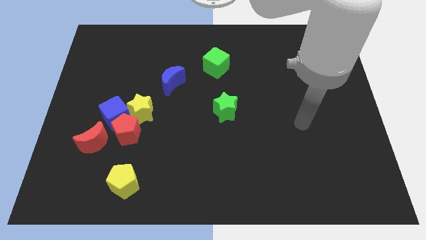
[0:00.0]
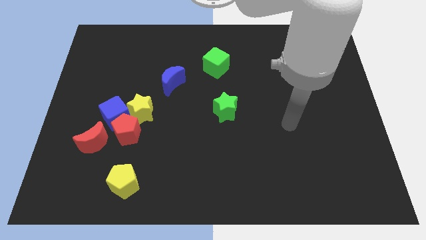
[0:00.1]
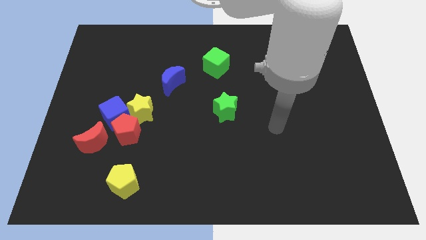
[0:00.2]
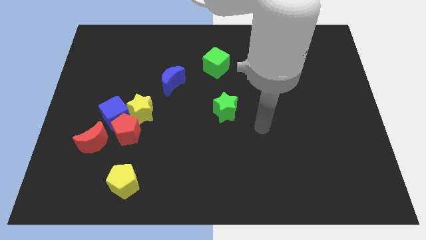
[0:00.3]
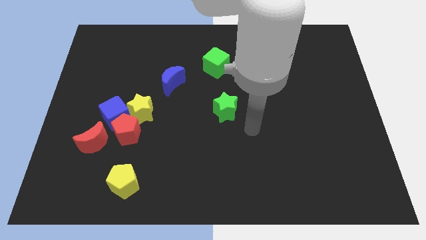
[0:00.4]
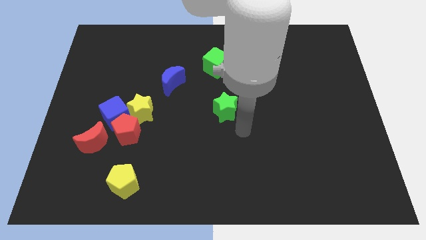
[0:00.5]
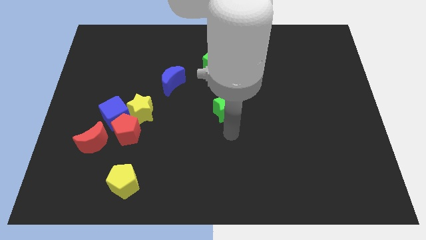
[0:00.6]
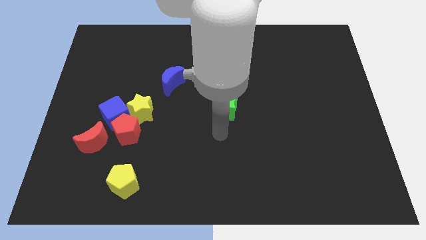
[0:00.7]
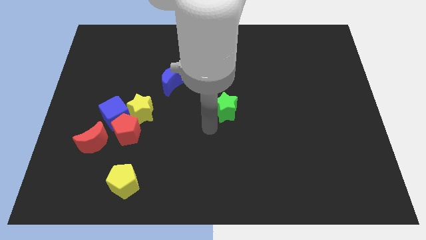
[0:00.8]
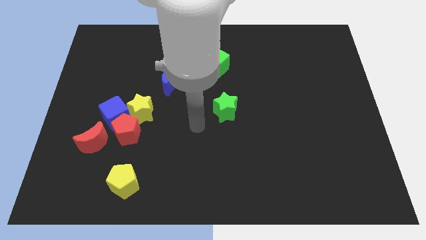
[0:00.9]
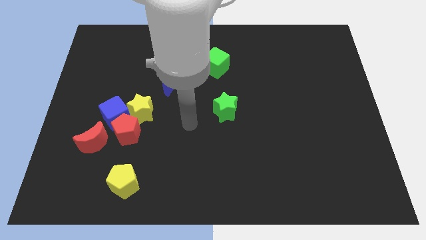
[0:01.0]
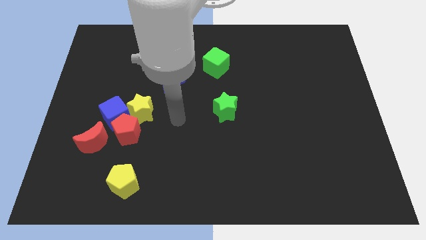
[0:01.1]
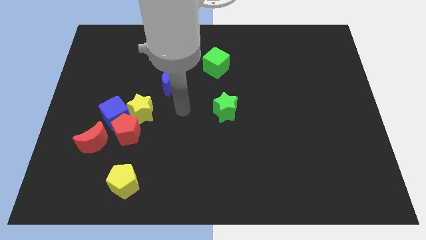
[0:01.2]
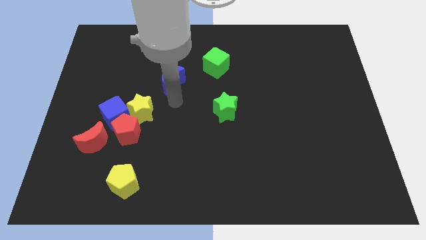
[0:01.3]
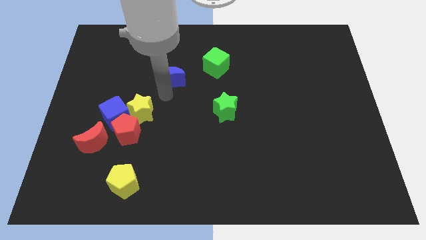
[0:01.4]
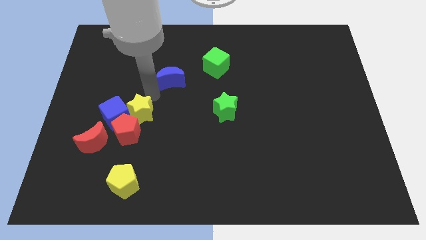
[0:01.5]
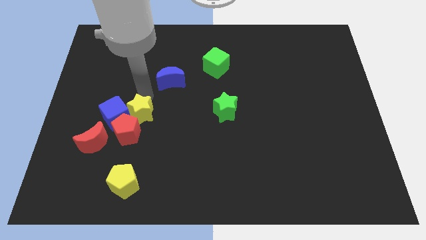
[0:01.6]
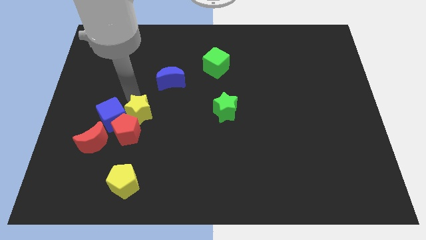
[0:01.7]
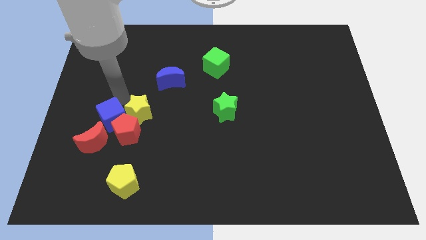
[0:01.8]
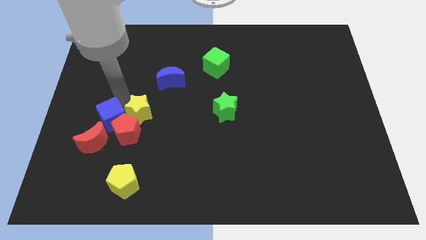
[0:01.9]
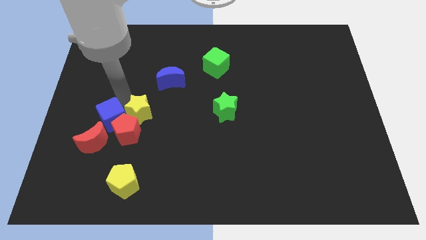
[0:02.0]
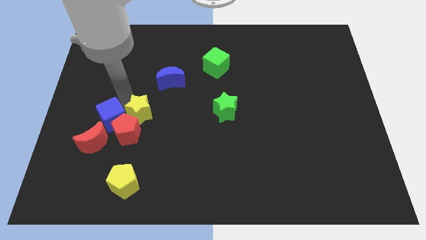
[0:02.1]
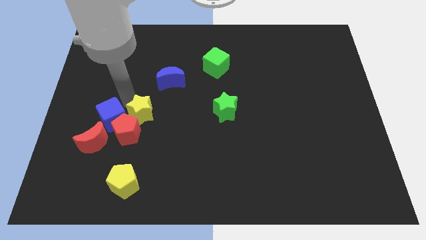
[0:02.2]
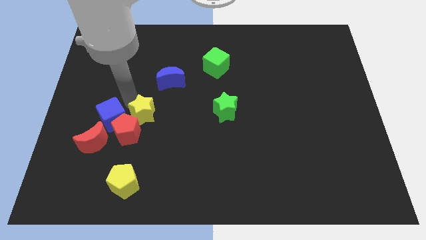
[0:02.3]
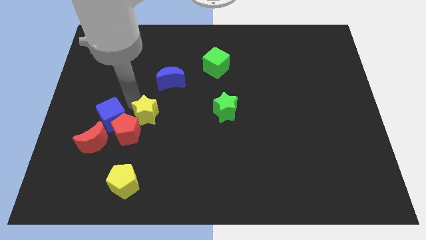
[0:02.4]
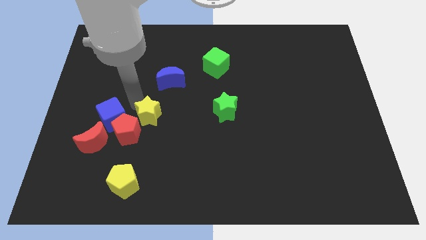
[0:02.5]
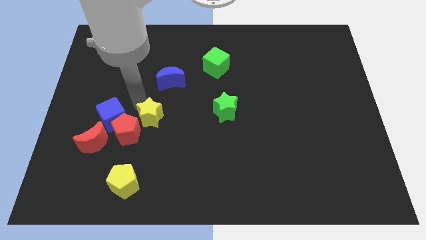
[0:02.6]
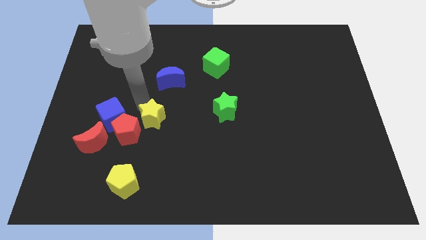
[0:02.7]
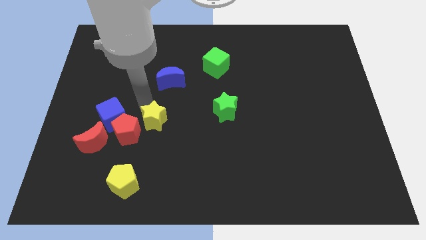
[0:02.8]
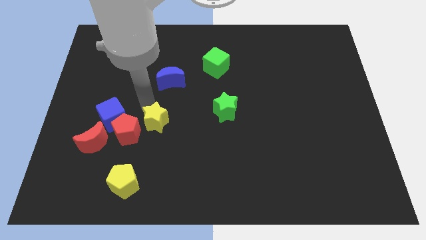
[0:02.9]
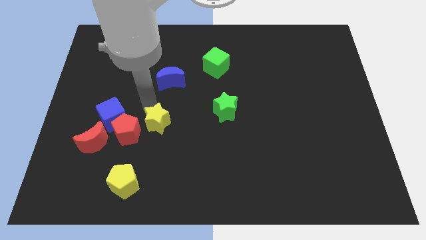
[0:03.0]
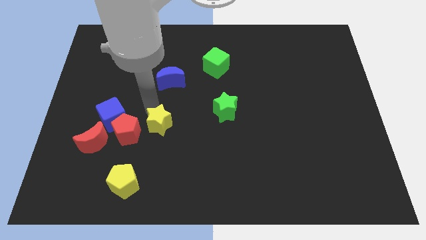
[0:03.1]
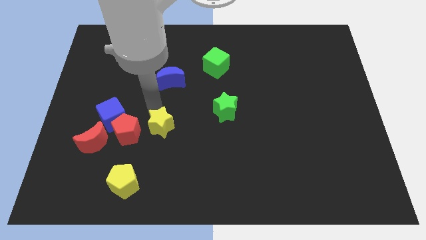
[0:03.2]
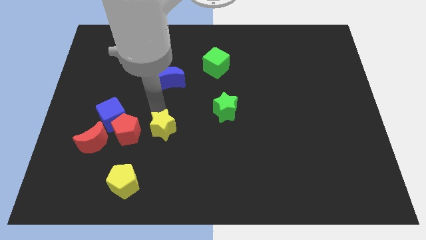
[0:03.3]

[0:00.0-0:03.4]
move the yellow star slightly downwards and then to the right

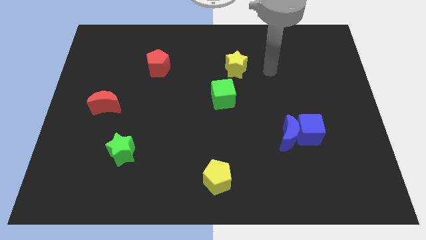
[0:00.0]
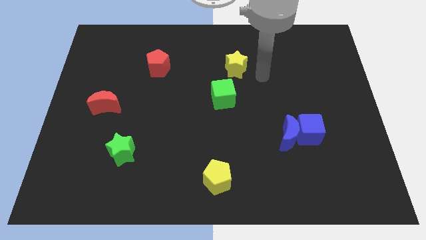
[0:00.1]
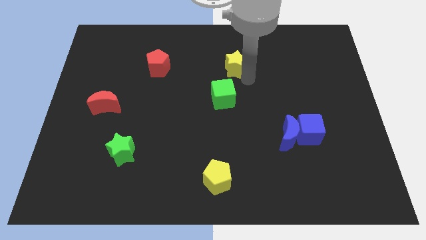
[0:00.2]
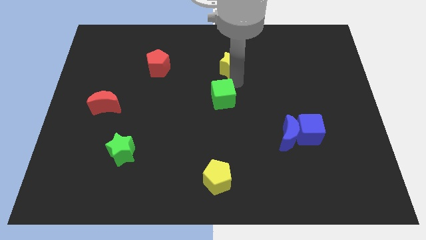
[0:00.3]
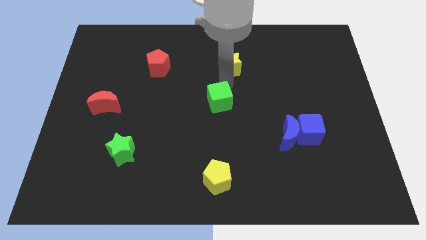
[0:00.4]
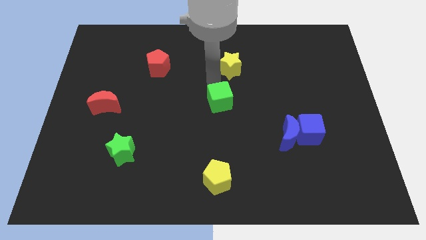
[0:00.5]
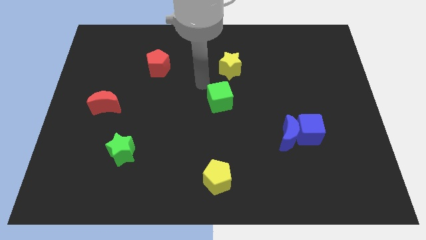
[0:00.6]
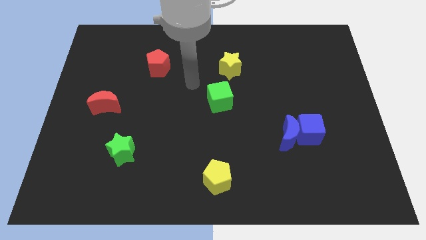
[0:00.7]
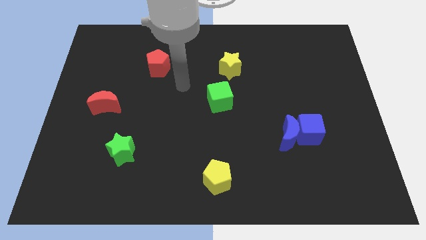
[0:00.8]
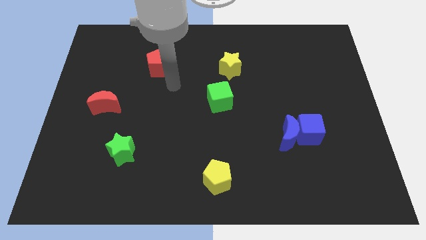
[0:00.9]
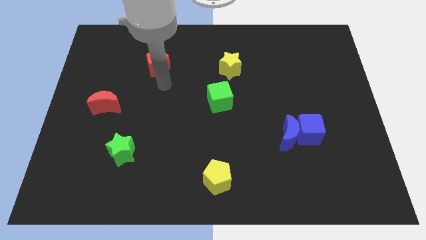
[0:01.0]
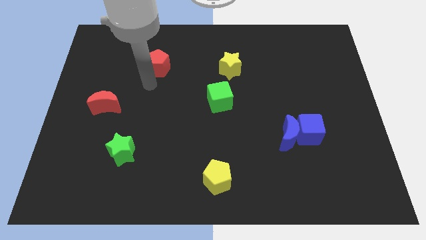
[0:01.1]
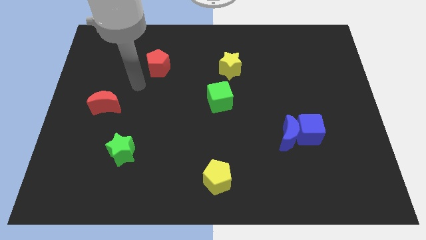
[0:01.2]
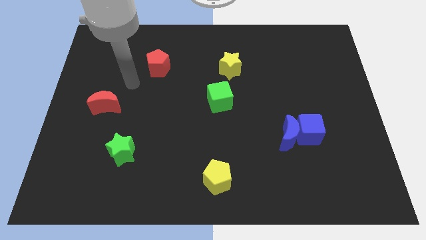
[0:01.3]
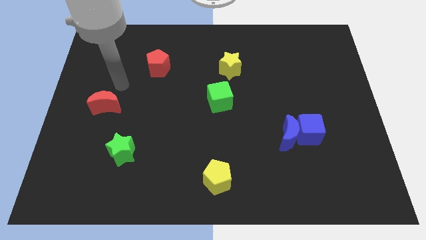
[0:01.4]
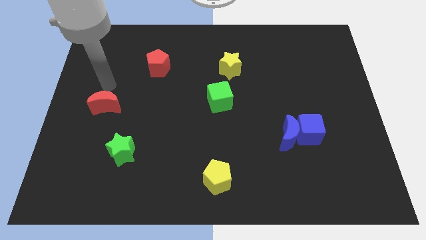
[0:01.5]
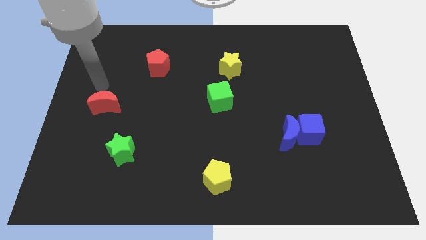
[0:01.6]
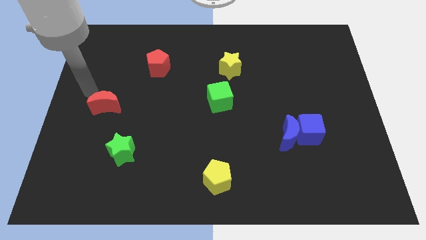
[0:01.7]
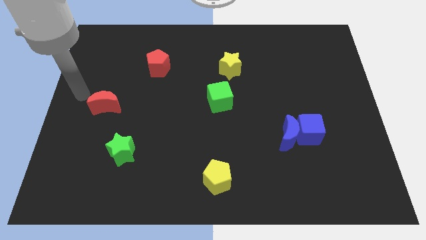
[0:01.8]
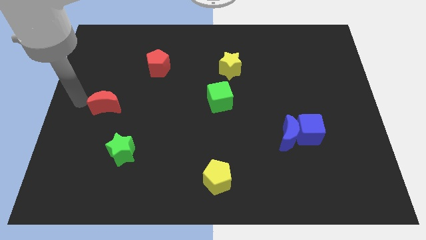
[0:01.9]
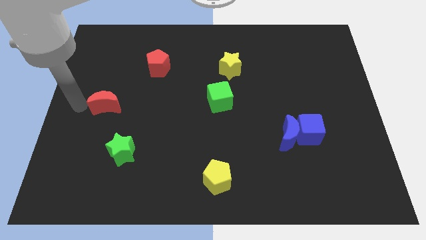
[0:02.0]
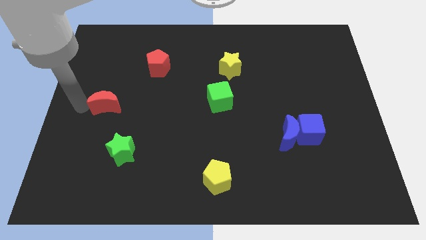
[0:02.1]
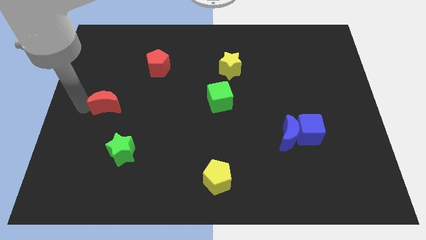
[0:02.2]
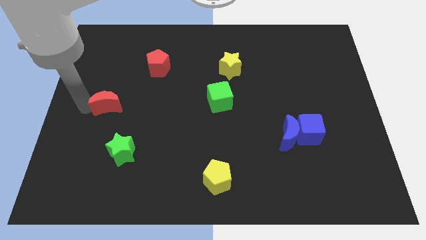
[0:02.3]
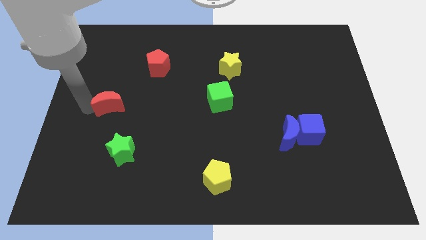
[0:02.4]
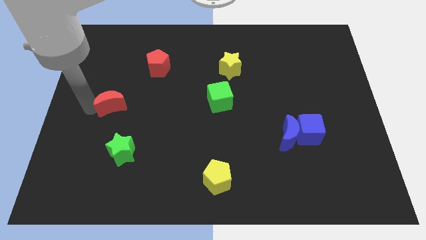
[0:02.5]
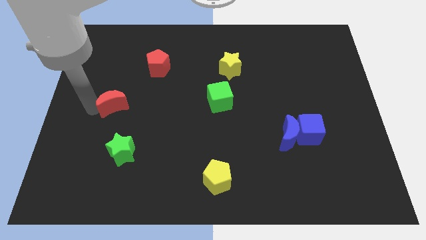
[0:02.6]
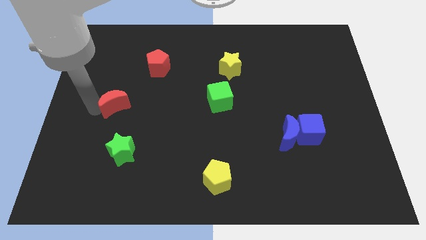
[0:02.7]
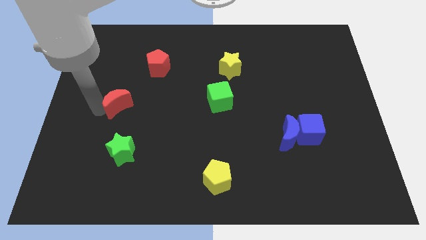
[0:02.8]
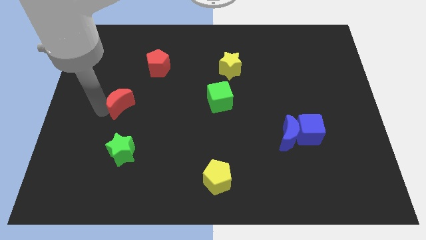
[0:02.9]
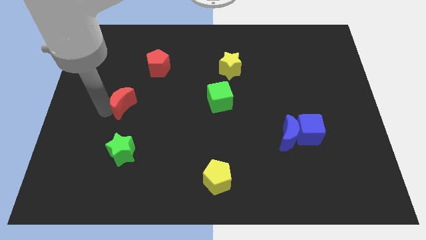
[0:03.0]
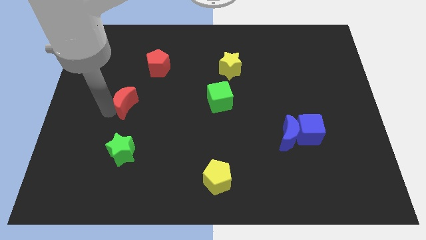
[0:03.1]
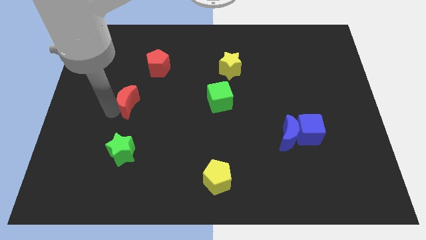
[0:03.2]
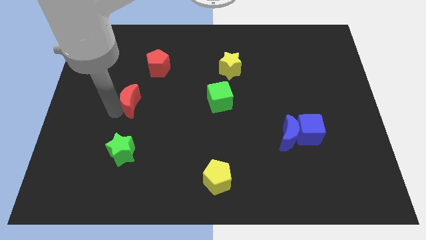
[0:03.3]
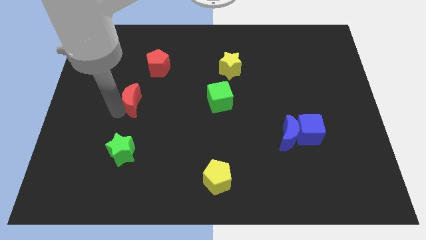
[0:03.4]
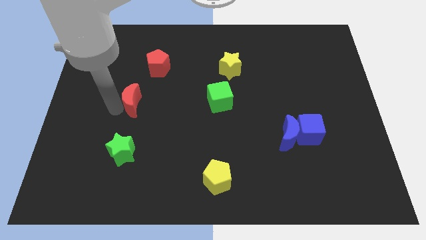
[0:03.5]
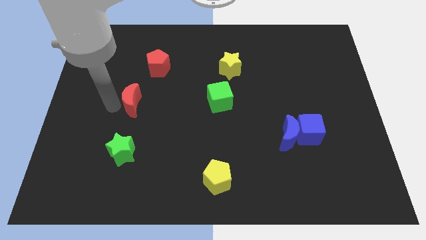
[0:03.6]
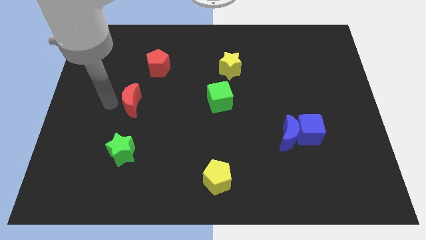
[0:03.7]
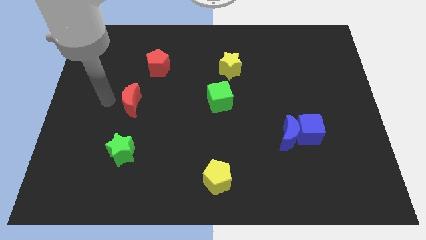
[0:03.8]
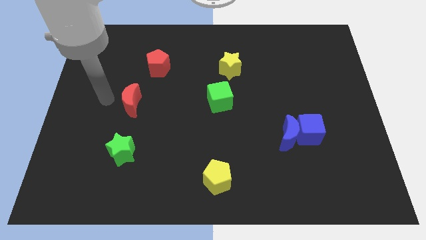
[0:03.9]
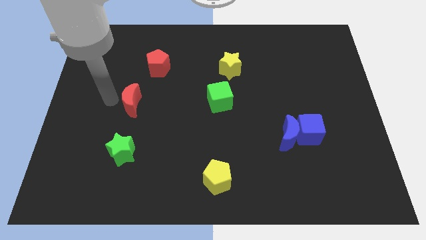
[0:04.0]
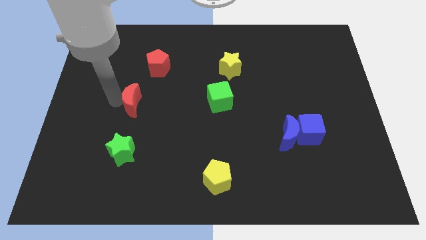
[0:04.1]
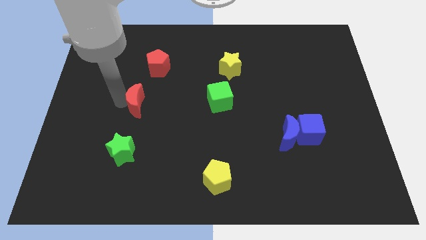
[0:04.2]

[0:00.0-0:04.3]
slide the red moon to the right a little

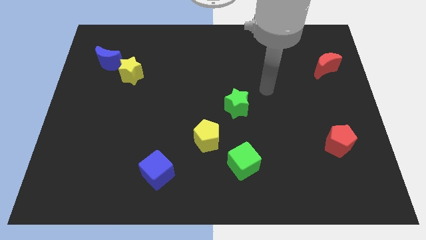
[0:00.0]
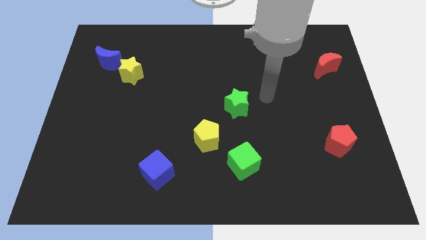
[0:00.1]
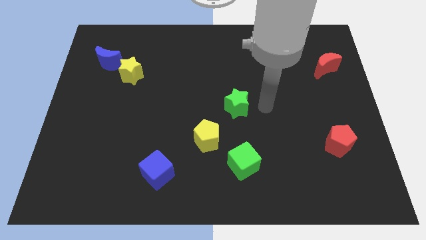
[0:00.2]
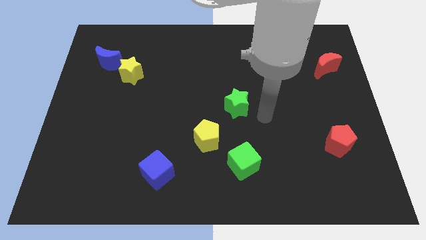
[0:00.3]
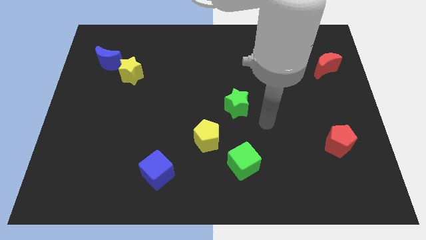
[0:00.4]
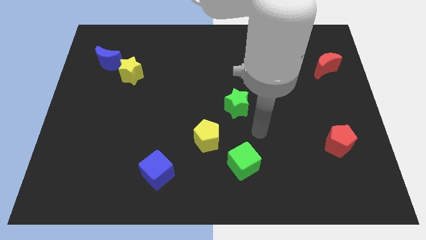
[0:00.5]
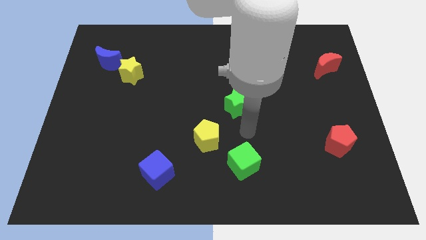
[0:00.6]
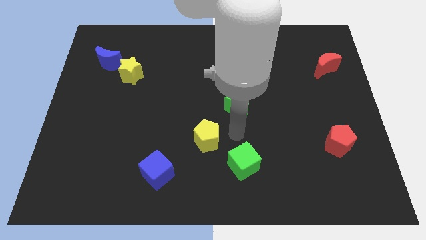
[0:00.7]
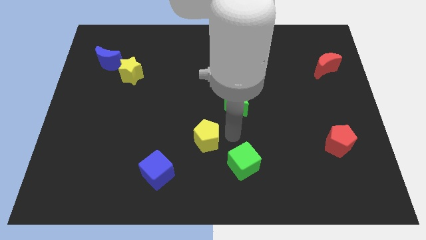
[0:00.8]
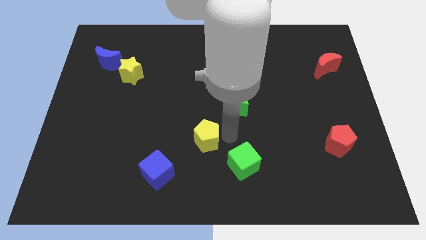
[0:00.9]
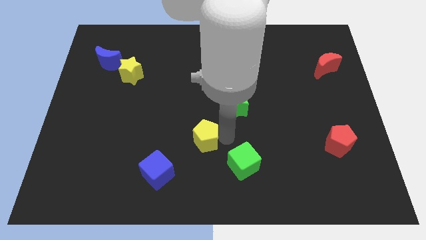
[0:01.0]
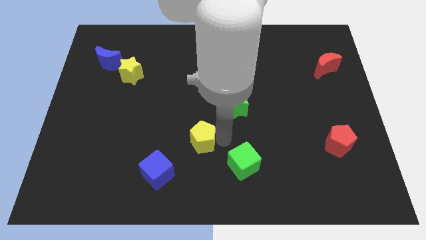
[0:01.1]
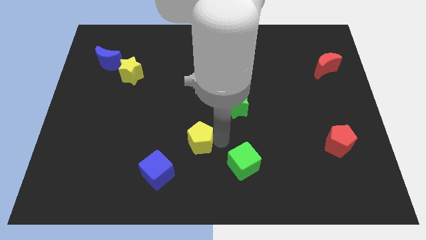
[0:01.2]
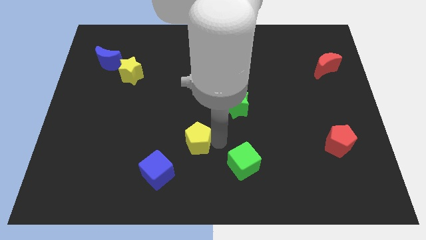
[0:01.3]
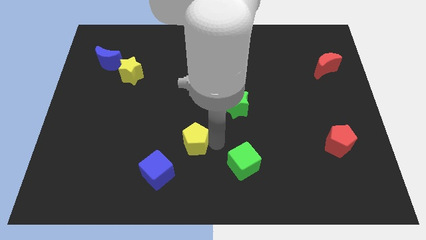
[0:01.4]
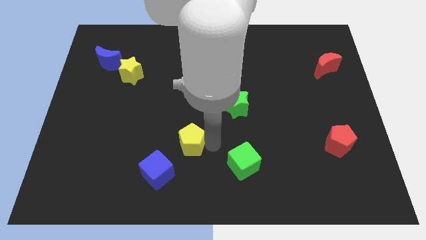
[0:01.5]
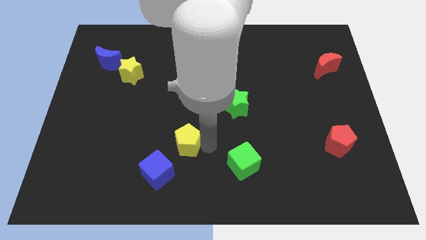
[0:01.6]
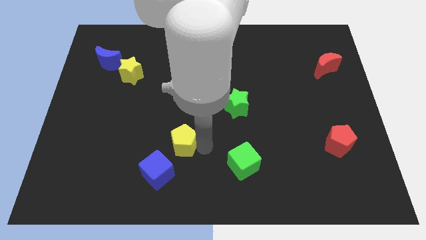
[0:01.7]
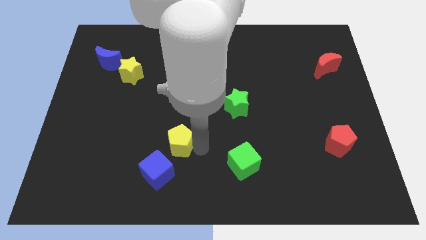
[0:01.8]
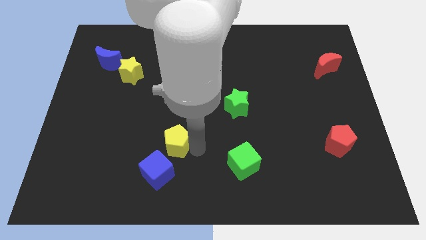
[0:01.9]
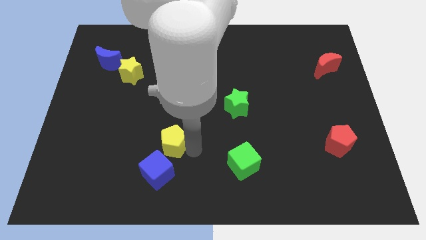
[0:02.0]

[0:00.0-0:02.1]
slide the yellow pentagon to the left a little
